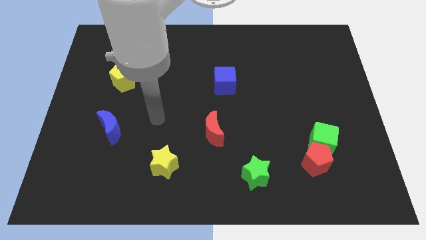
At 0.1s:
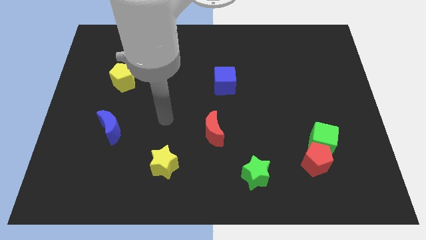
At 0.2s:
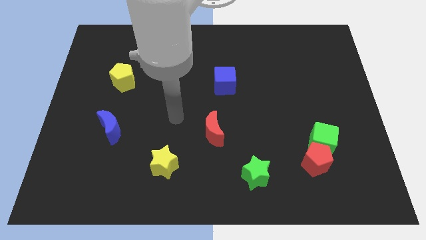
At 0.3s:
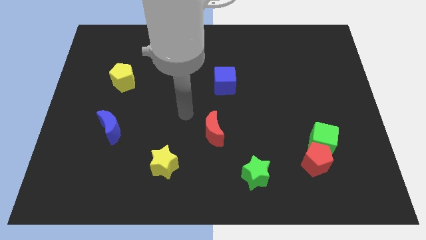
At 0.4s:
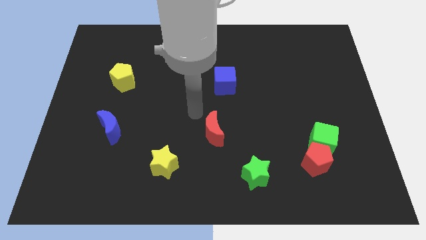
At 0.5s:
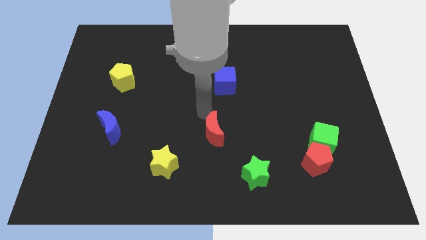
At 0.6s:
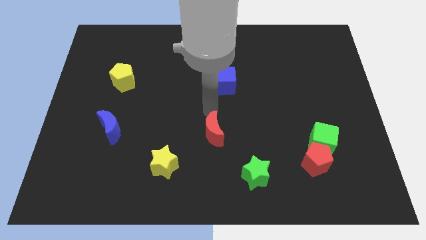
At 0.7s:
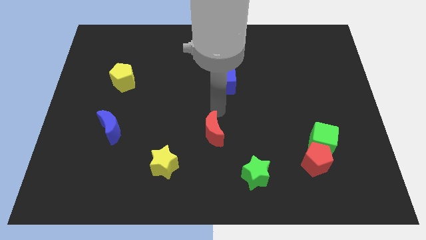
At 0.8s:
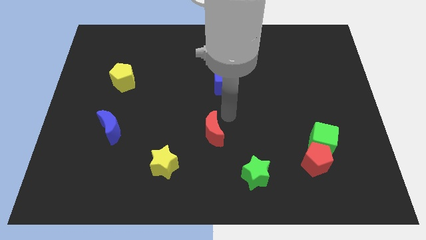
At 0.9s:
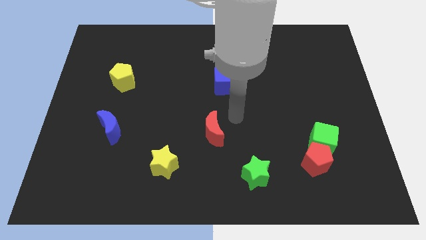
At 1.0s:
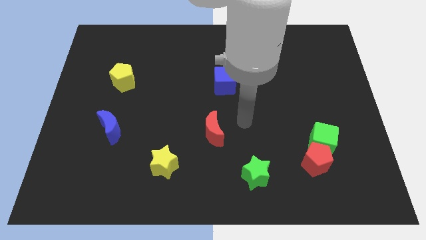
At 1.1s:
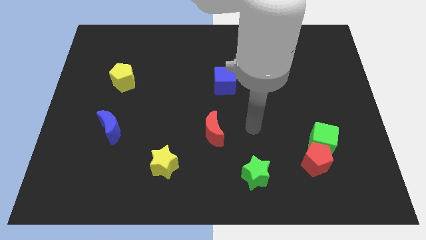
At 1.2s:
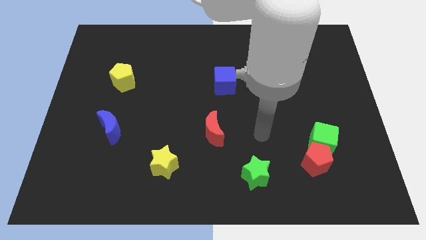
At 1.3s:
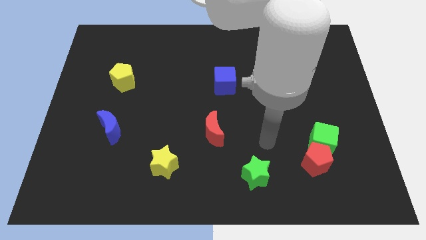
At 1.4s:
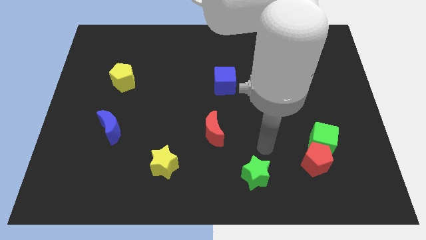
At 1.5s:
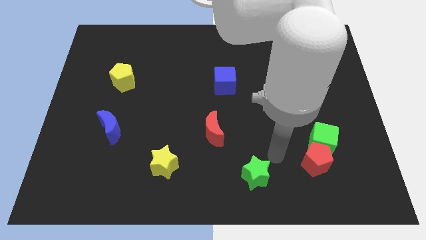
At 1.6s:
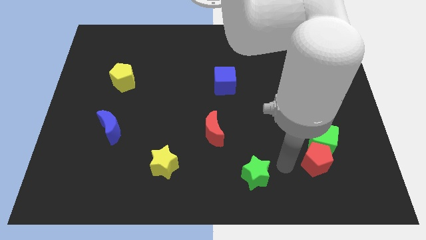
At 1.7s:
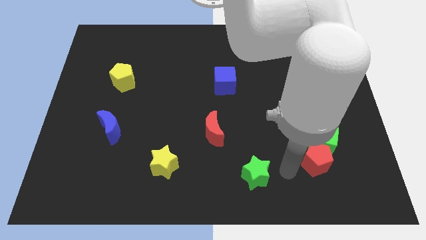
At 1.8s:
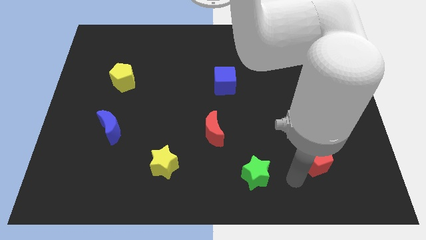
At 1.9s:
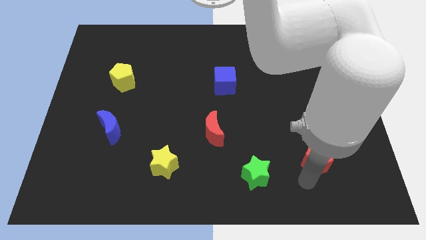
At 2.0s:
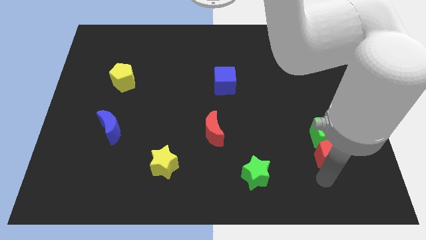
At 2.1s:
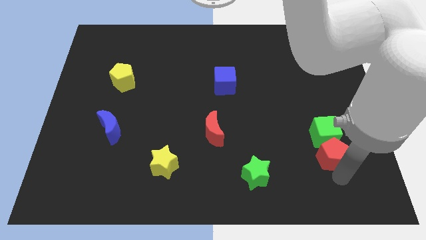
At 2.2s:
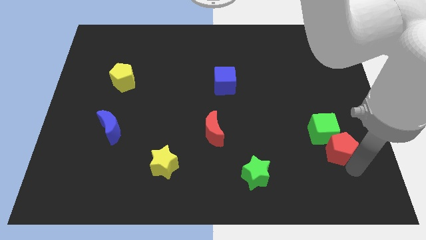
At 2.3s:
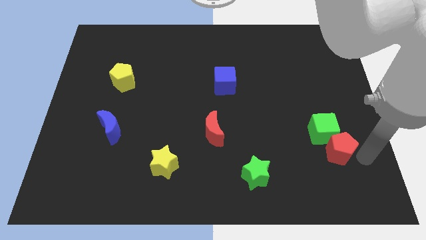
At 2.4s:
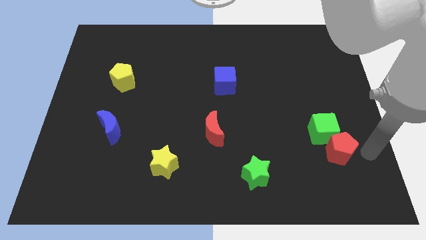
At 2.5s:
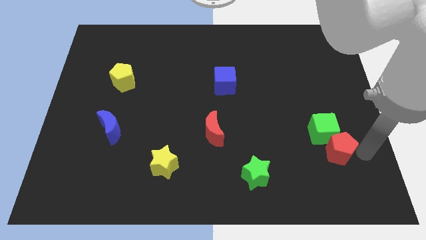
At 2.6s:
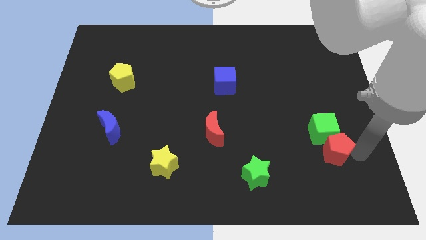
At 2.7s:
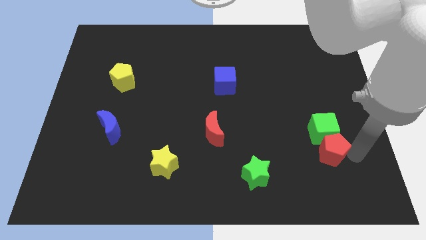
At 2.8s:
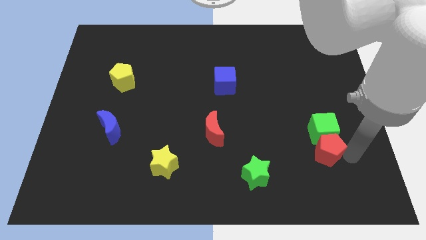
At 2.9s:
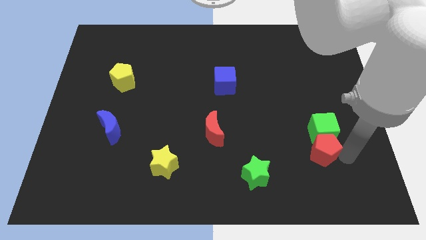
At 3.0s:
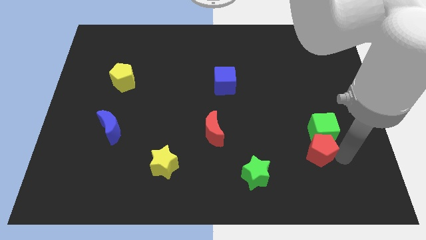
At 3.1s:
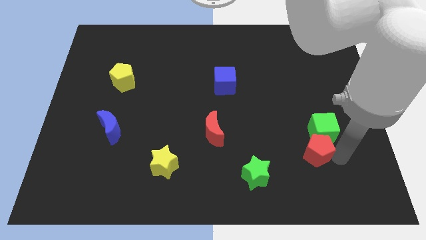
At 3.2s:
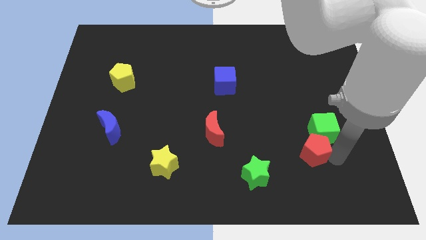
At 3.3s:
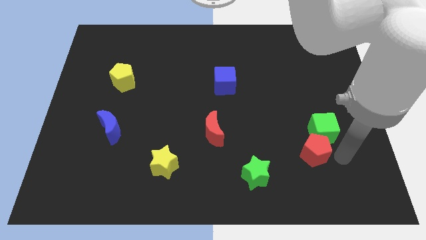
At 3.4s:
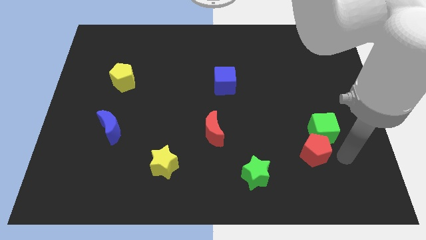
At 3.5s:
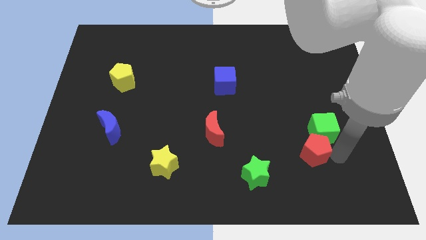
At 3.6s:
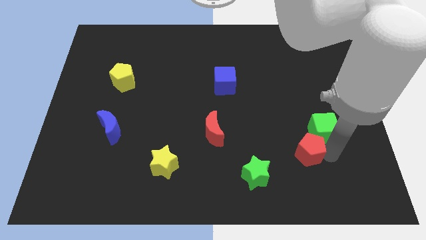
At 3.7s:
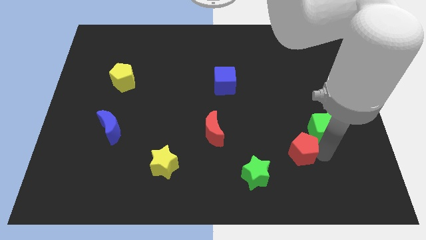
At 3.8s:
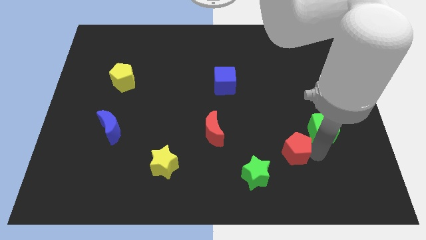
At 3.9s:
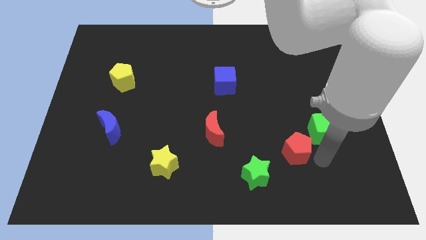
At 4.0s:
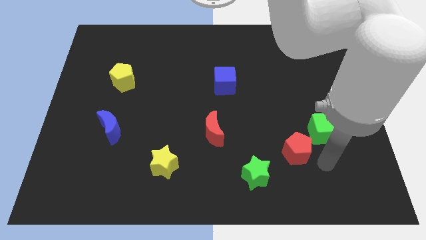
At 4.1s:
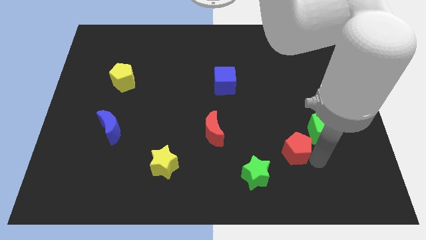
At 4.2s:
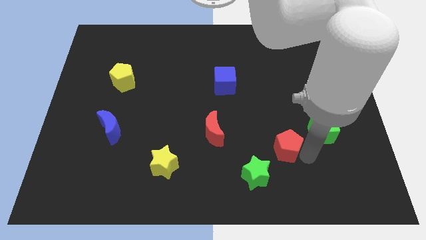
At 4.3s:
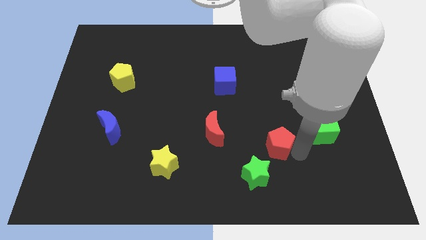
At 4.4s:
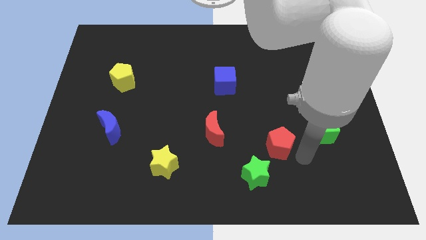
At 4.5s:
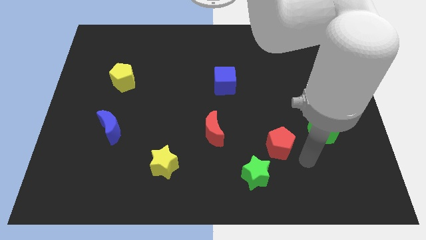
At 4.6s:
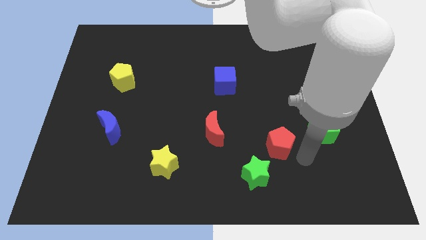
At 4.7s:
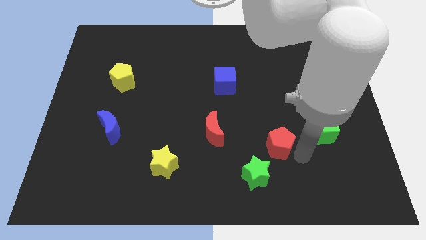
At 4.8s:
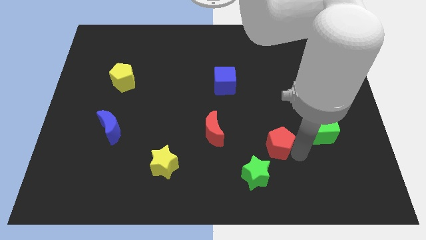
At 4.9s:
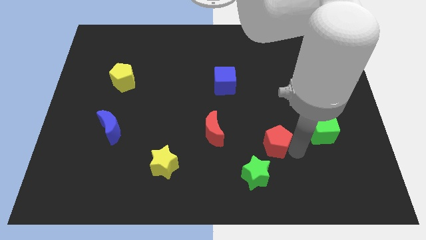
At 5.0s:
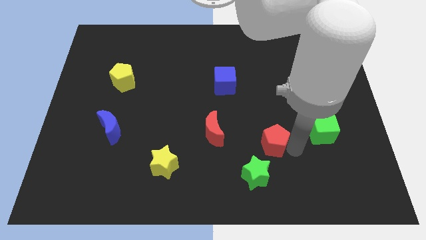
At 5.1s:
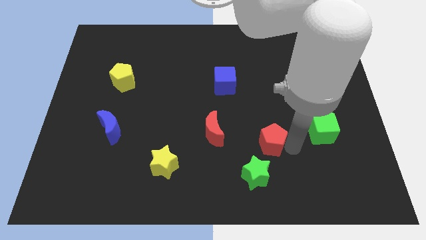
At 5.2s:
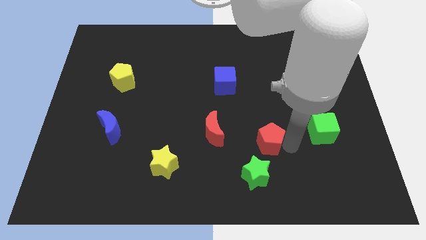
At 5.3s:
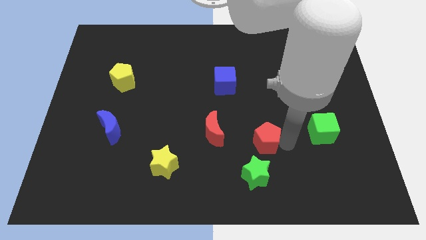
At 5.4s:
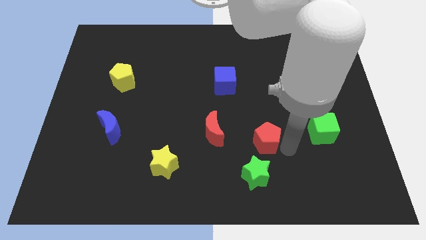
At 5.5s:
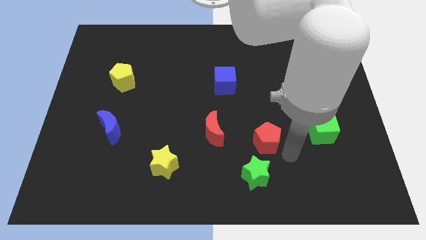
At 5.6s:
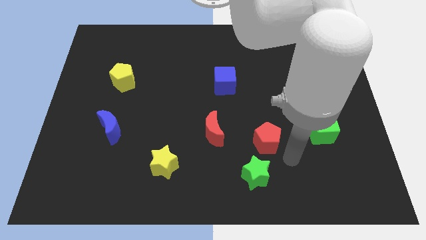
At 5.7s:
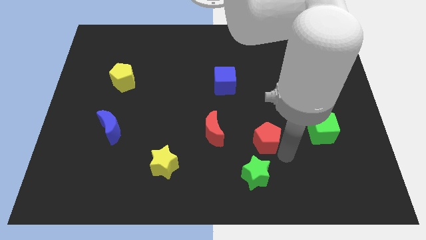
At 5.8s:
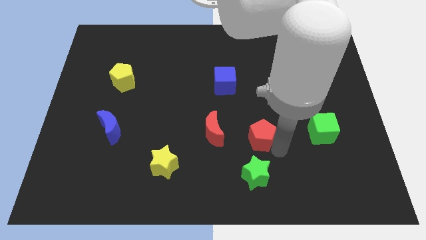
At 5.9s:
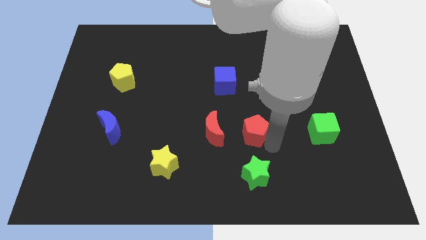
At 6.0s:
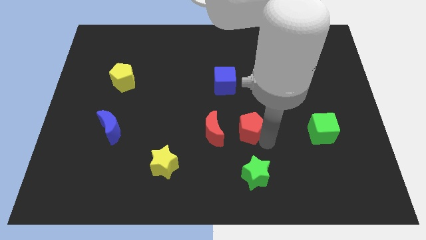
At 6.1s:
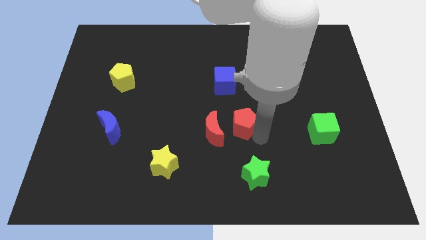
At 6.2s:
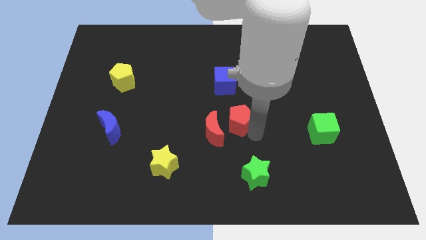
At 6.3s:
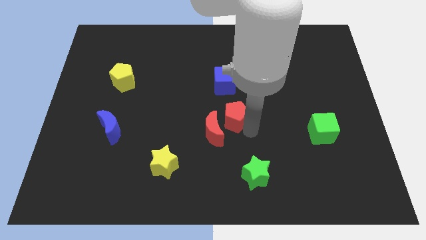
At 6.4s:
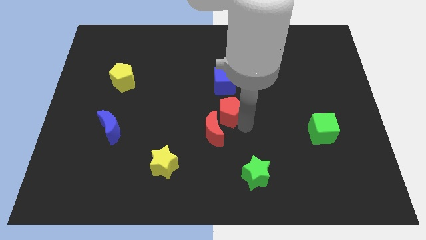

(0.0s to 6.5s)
slide the red pentagon diagonally upwards and to the left

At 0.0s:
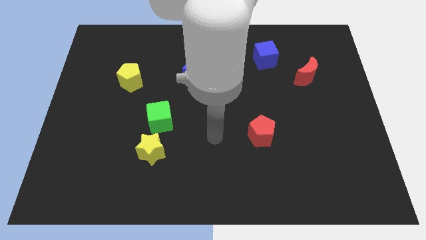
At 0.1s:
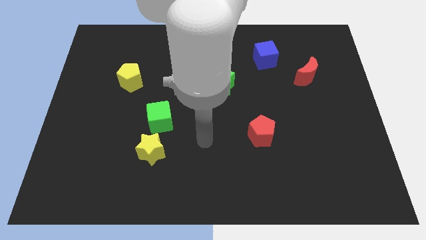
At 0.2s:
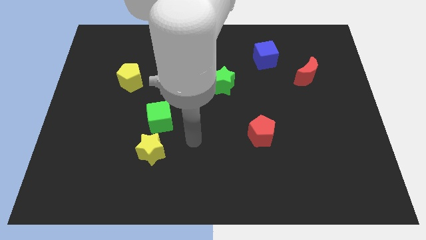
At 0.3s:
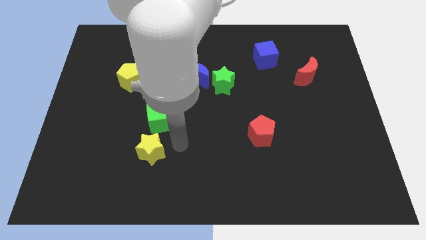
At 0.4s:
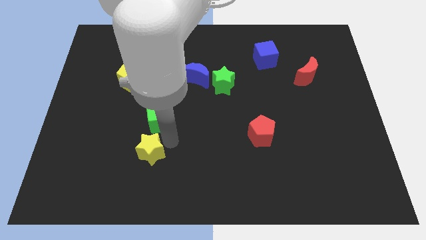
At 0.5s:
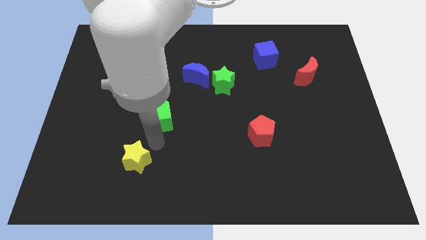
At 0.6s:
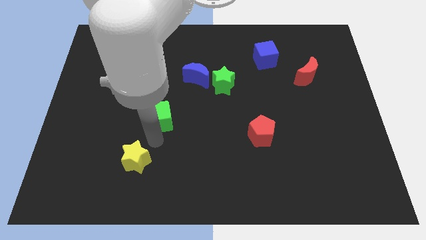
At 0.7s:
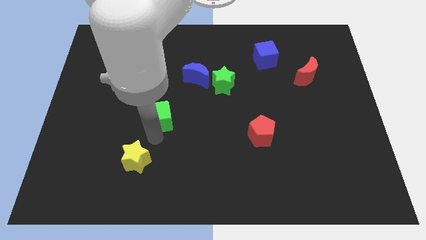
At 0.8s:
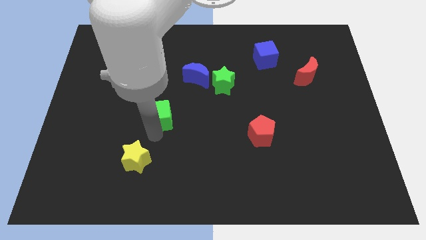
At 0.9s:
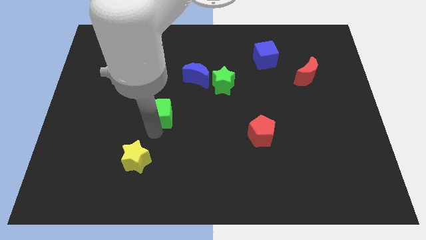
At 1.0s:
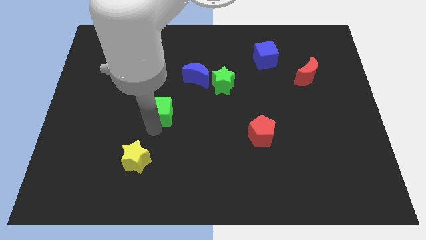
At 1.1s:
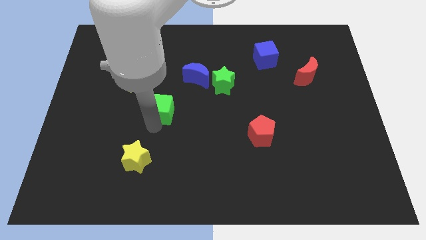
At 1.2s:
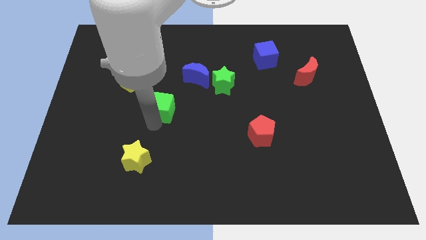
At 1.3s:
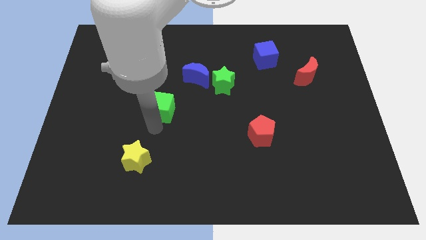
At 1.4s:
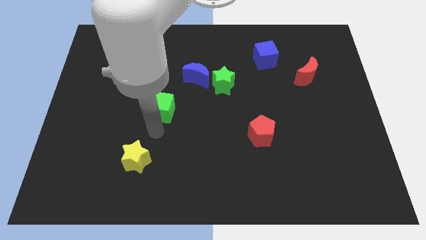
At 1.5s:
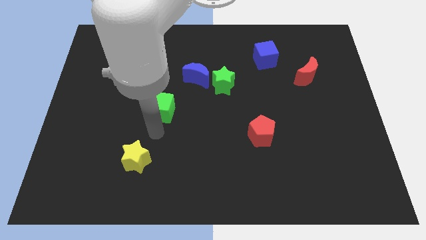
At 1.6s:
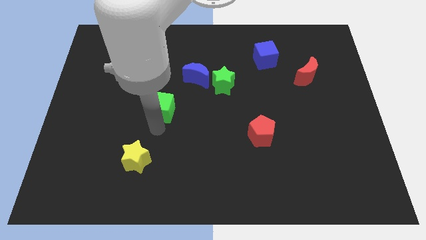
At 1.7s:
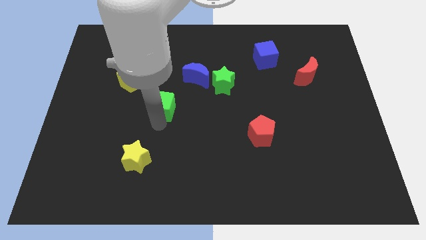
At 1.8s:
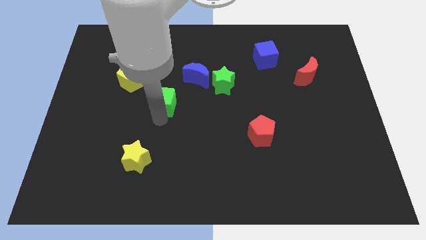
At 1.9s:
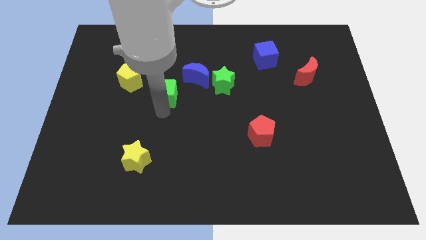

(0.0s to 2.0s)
slightly push the green cube upwards
